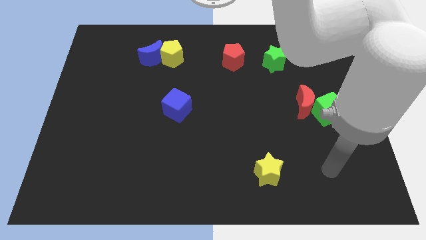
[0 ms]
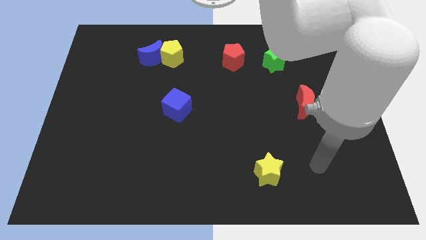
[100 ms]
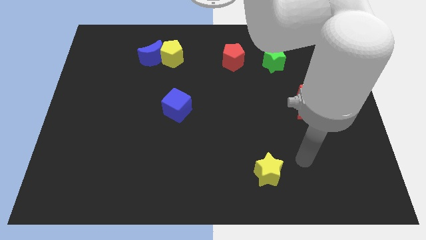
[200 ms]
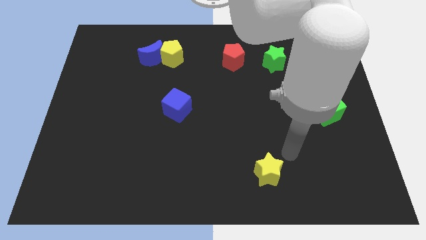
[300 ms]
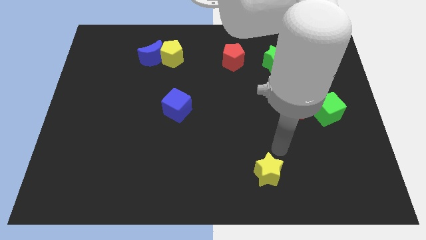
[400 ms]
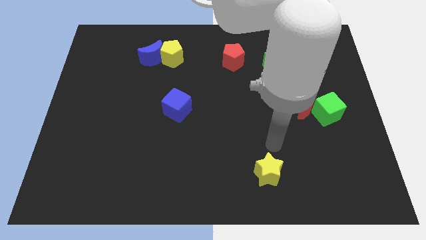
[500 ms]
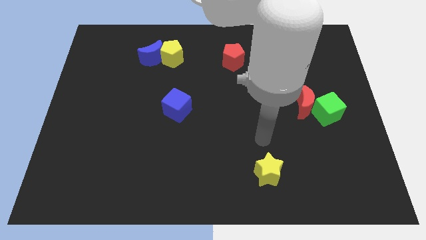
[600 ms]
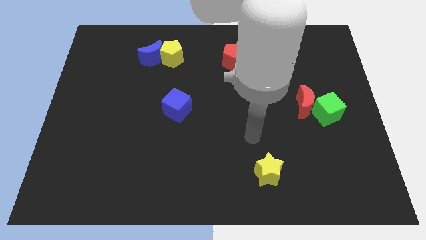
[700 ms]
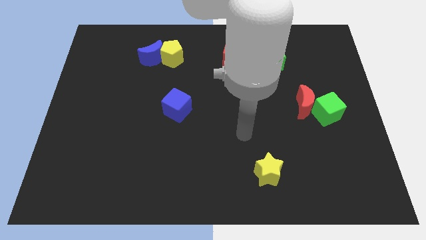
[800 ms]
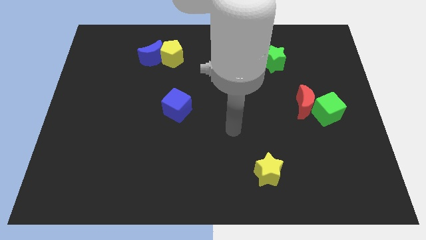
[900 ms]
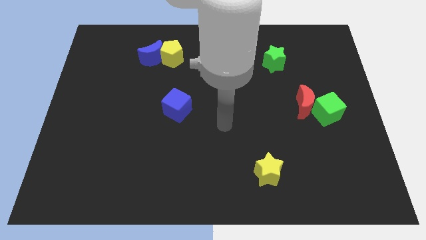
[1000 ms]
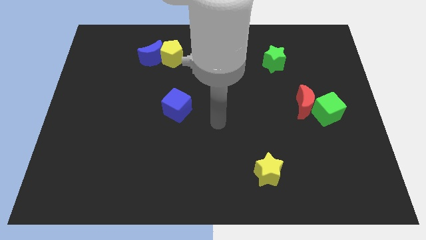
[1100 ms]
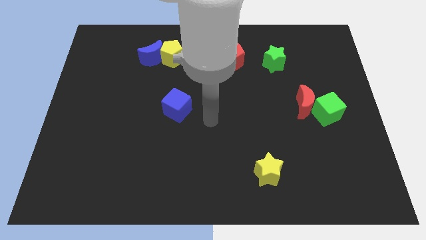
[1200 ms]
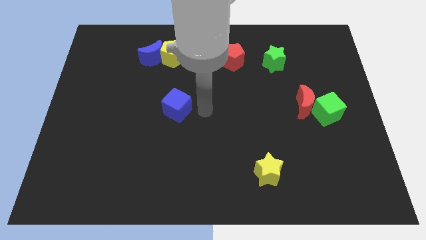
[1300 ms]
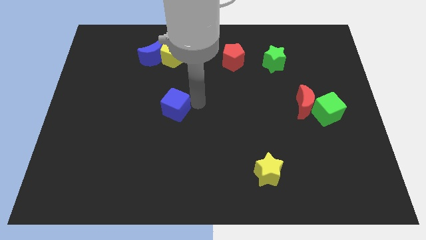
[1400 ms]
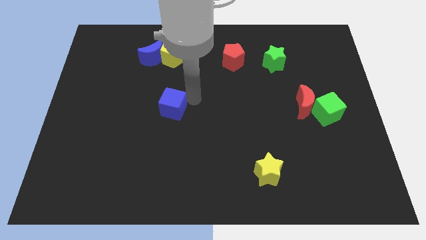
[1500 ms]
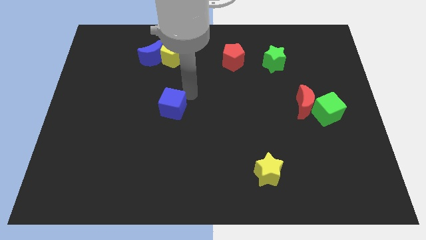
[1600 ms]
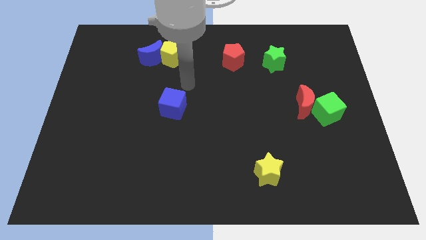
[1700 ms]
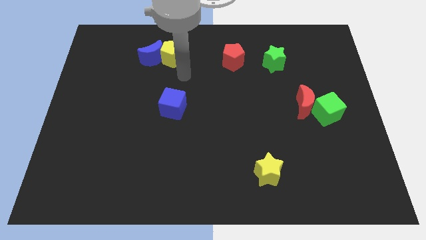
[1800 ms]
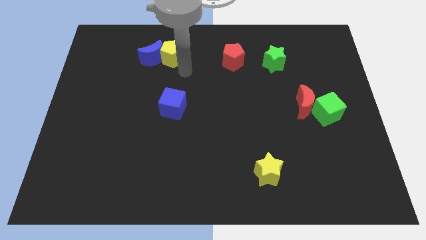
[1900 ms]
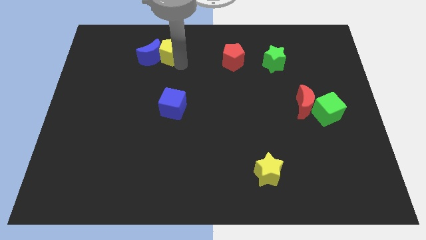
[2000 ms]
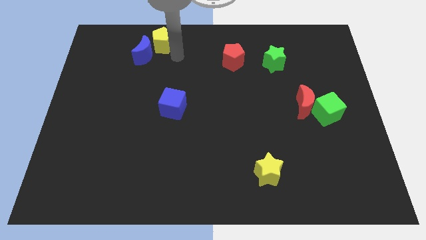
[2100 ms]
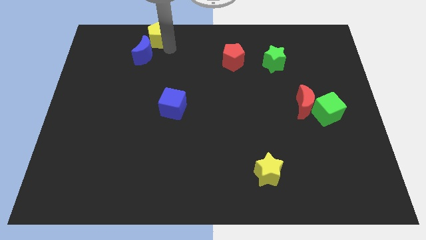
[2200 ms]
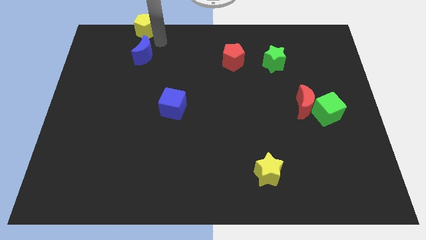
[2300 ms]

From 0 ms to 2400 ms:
move the blue moon away from the yellow pentagon

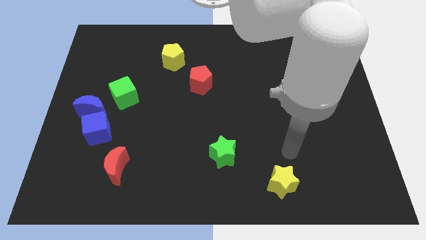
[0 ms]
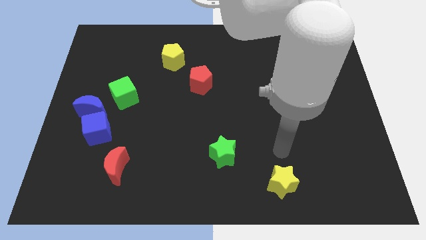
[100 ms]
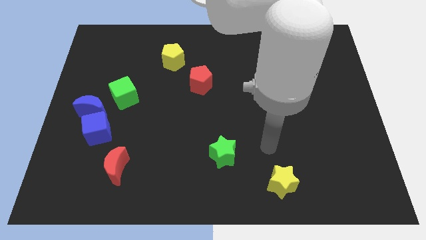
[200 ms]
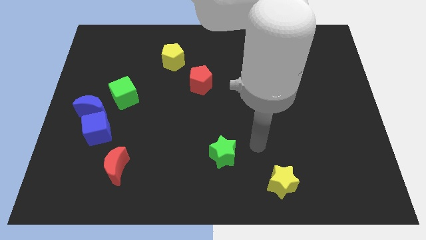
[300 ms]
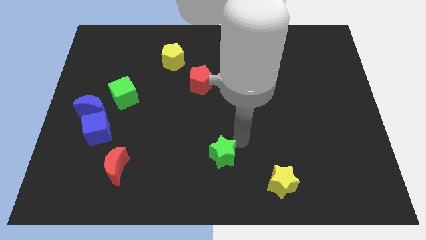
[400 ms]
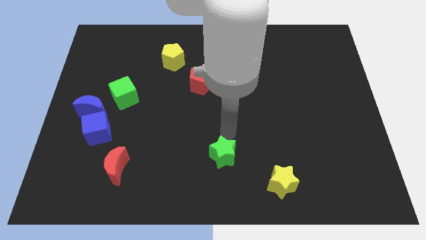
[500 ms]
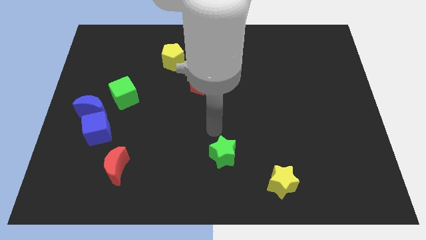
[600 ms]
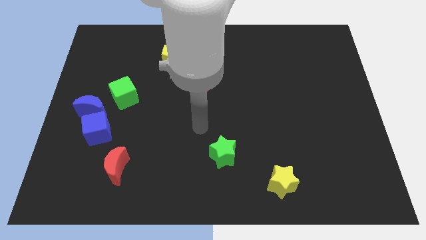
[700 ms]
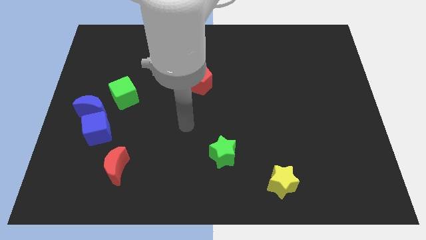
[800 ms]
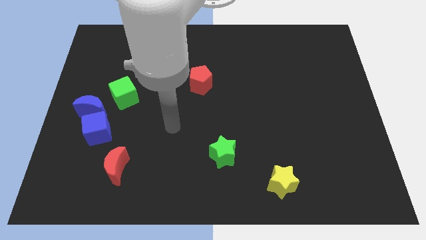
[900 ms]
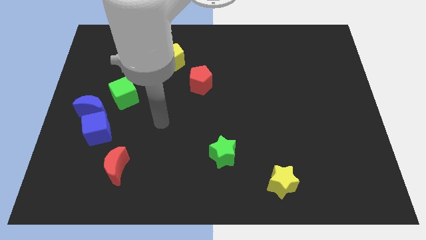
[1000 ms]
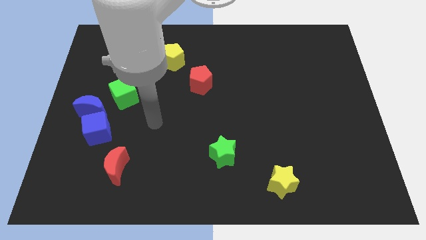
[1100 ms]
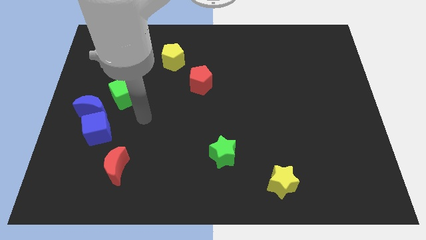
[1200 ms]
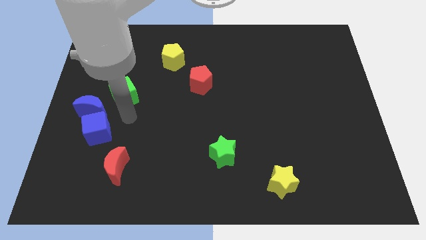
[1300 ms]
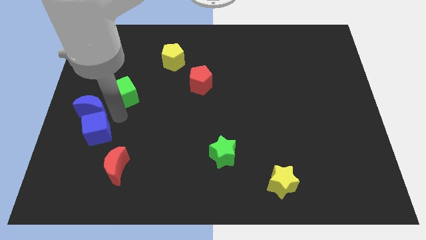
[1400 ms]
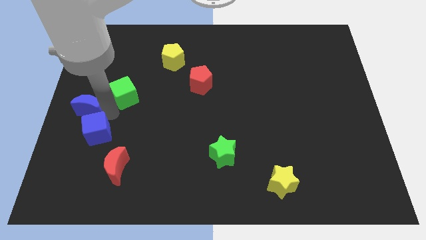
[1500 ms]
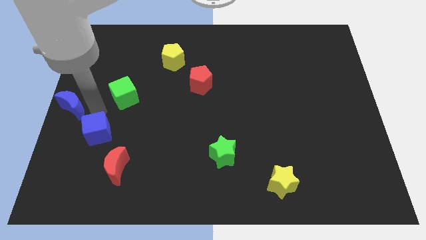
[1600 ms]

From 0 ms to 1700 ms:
separate the blue cube from the blue moon

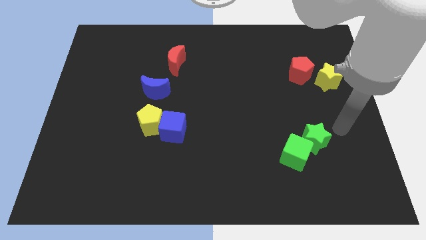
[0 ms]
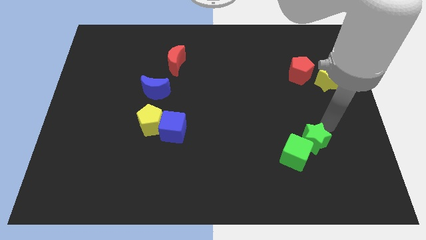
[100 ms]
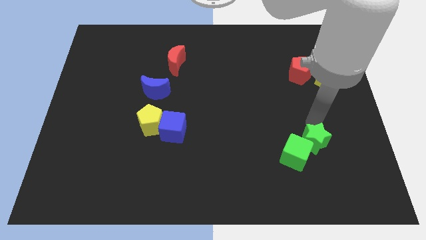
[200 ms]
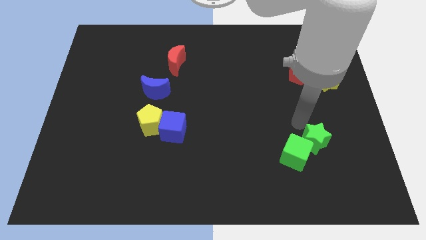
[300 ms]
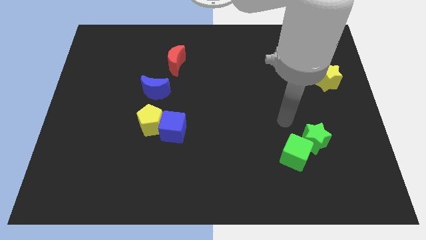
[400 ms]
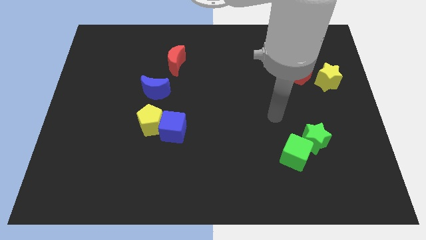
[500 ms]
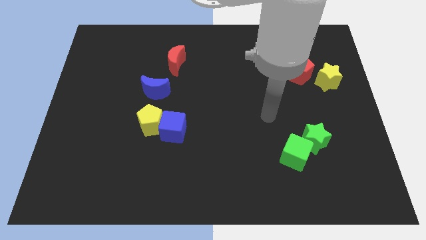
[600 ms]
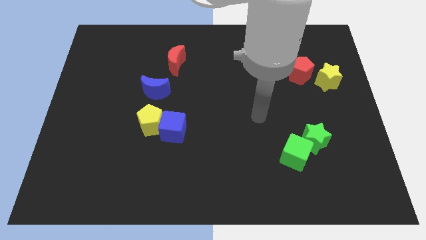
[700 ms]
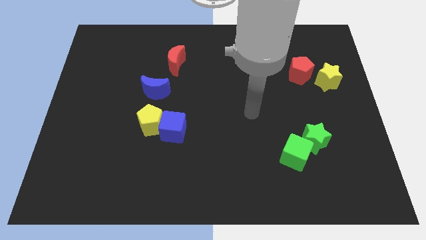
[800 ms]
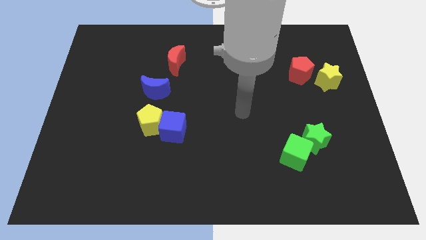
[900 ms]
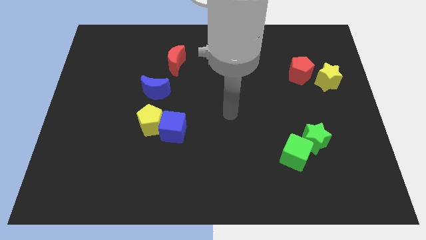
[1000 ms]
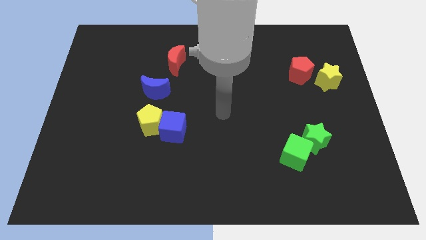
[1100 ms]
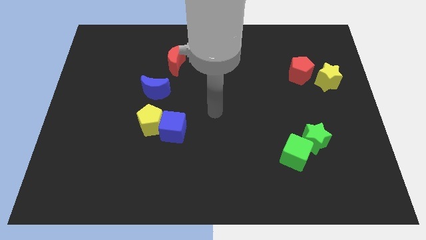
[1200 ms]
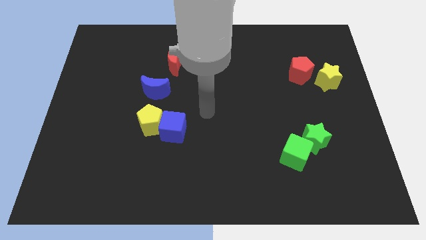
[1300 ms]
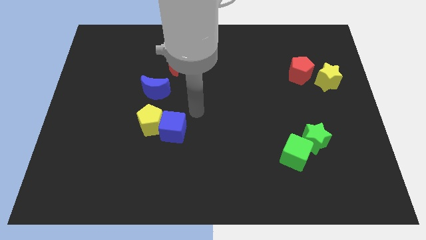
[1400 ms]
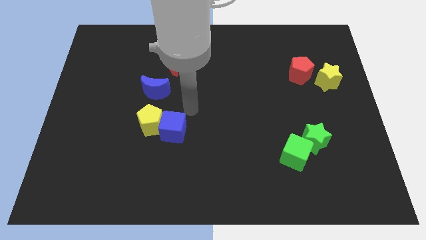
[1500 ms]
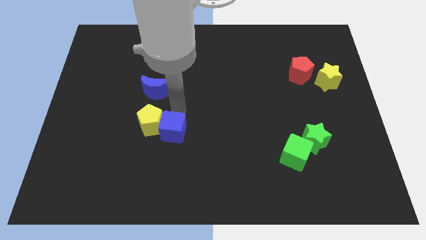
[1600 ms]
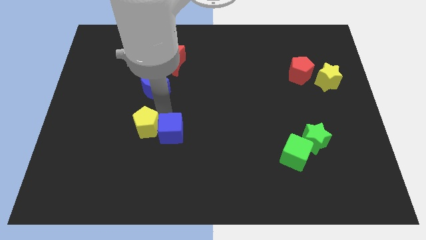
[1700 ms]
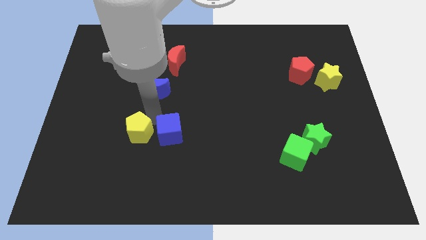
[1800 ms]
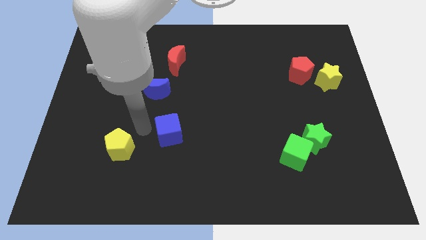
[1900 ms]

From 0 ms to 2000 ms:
pull the blue cube apart from the yellow pentagon

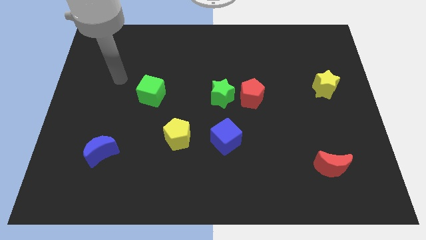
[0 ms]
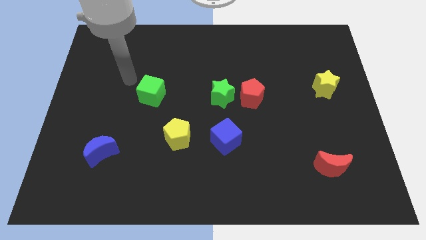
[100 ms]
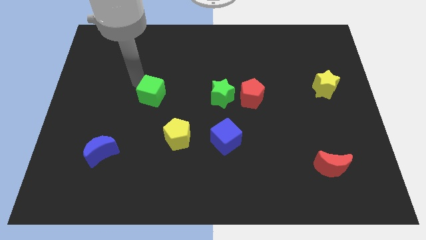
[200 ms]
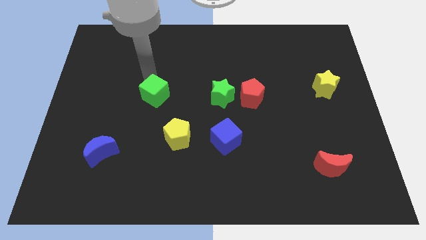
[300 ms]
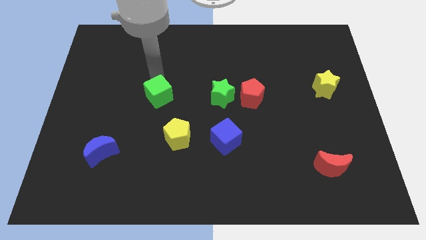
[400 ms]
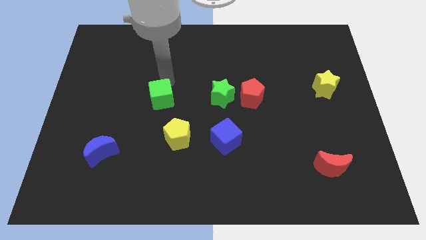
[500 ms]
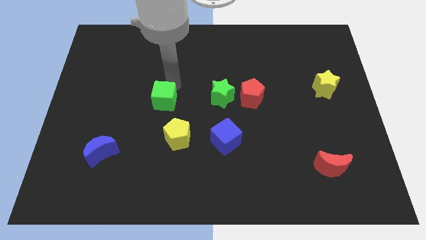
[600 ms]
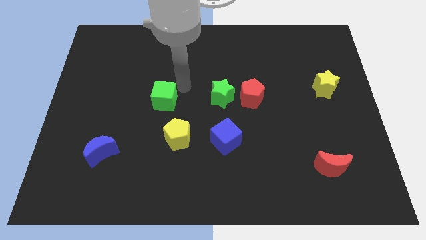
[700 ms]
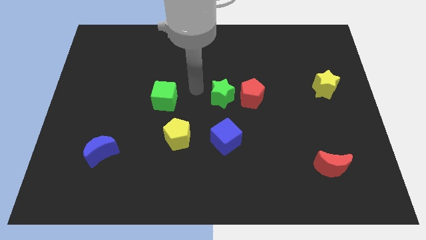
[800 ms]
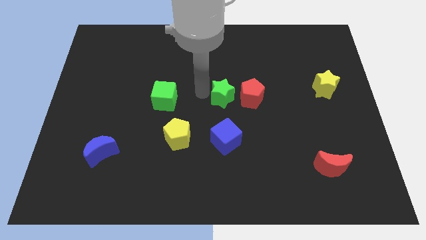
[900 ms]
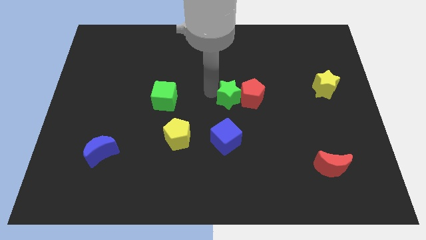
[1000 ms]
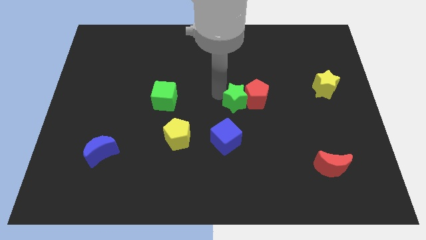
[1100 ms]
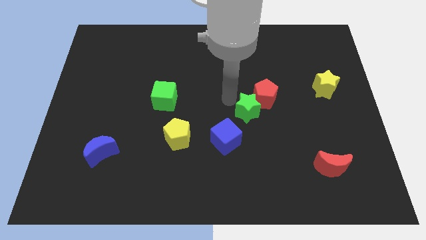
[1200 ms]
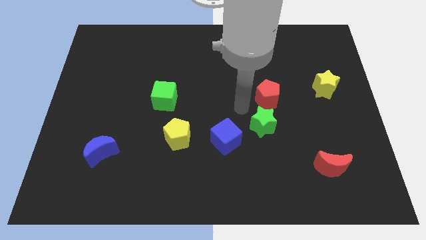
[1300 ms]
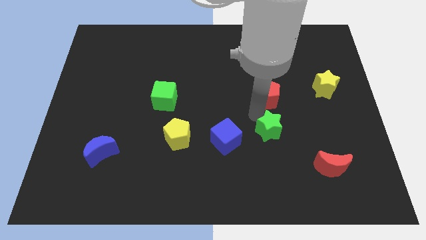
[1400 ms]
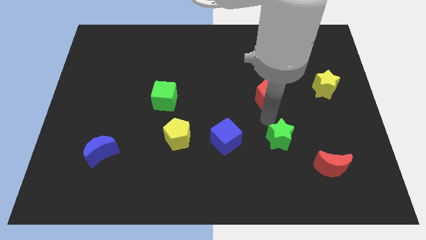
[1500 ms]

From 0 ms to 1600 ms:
separate the red pentagon from the green star

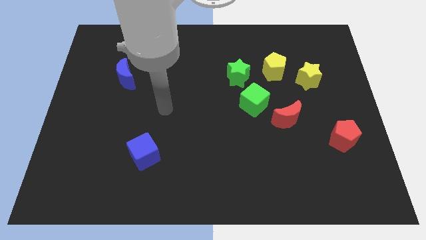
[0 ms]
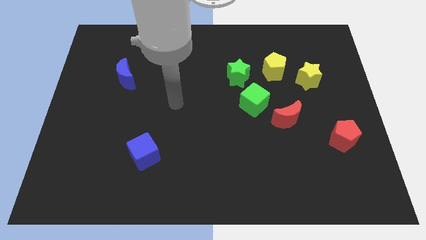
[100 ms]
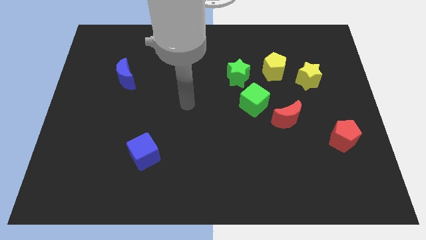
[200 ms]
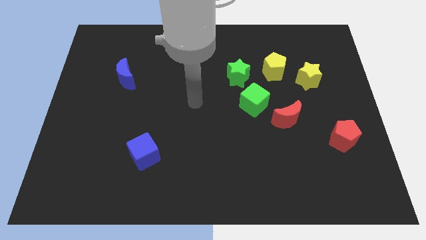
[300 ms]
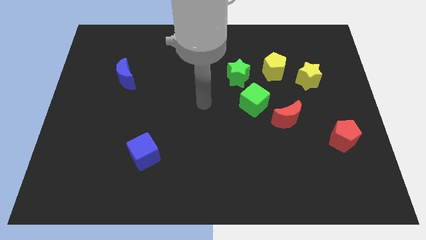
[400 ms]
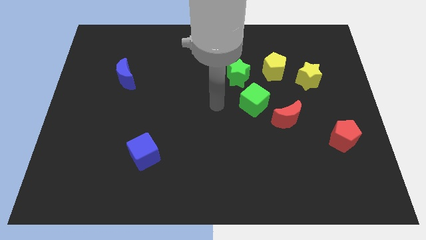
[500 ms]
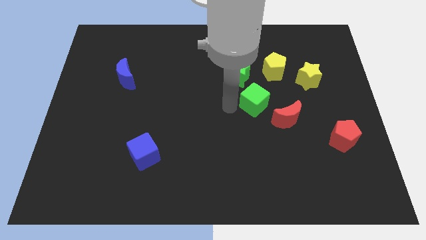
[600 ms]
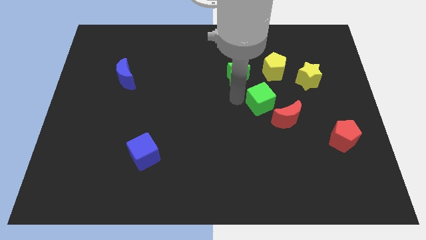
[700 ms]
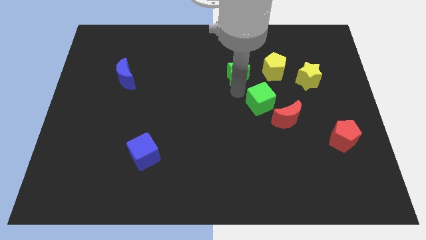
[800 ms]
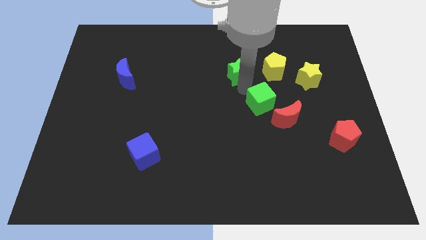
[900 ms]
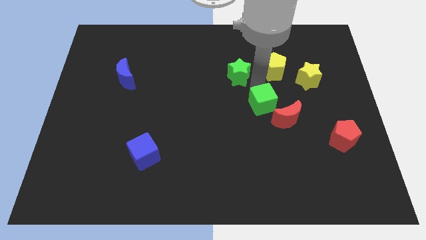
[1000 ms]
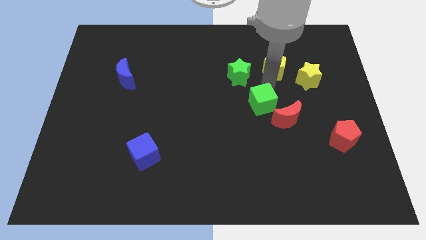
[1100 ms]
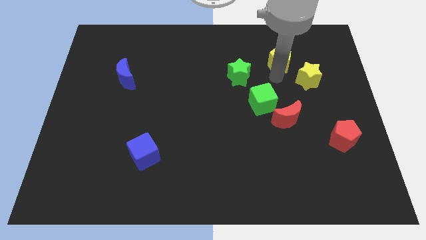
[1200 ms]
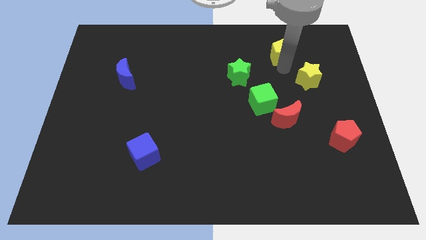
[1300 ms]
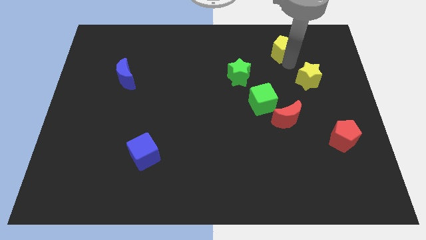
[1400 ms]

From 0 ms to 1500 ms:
move the yellow star away from the yellow pentagon
